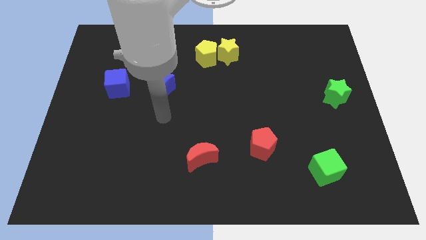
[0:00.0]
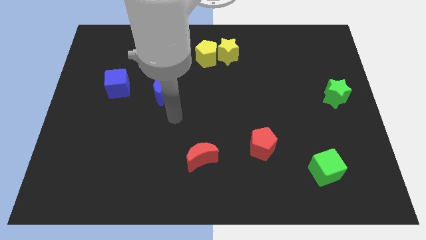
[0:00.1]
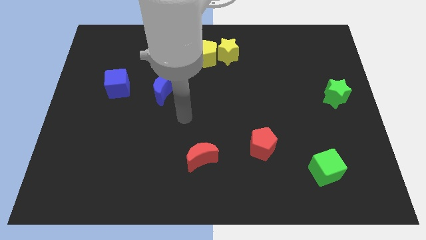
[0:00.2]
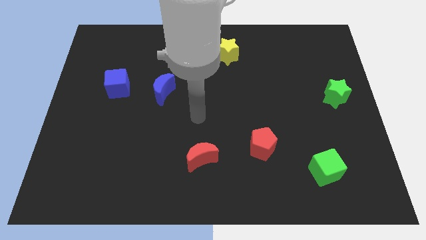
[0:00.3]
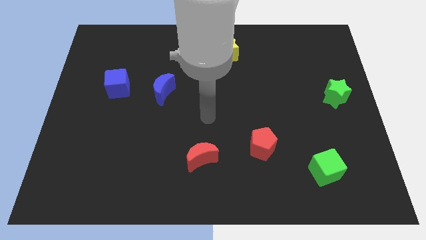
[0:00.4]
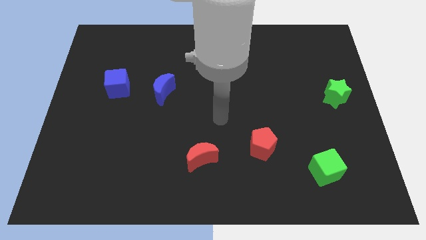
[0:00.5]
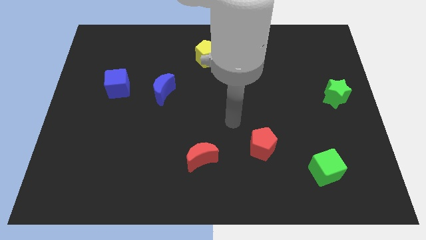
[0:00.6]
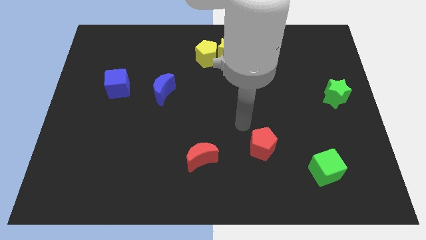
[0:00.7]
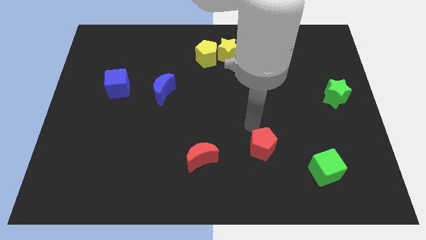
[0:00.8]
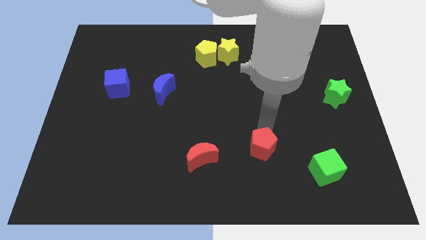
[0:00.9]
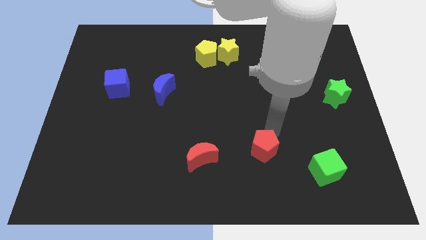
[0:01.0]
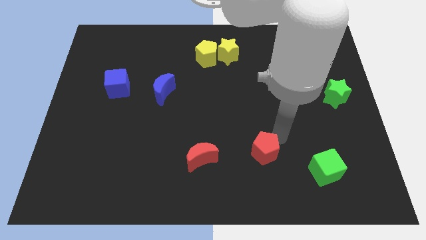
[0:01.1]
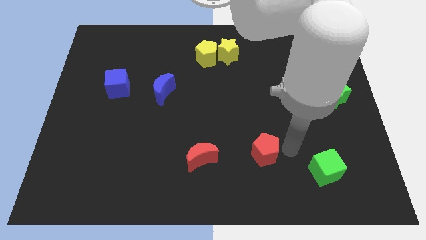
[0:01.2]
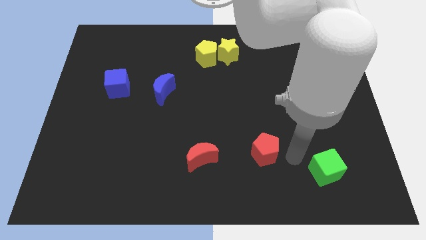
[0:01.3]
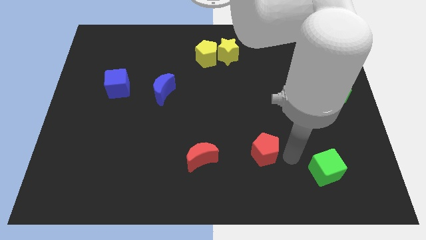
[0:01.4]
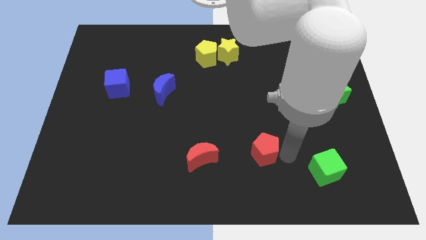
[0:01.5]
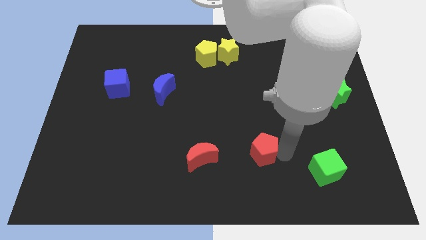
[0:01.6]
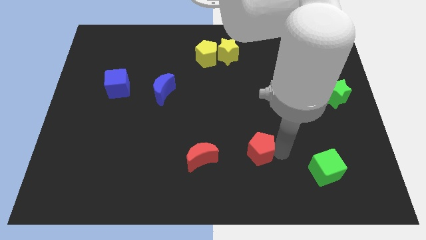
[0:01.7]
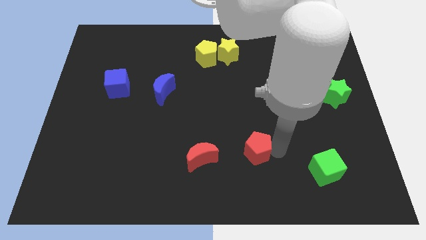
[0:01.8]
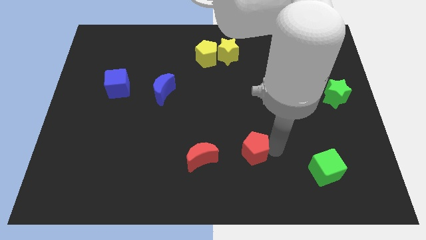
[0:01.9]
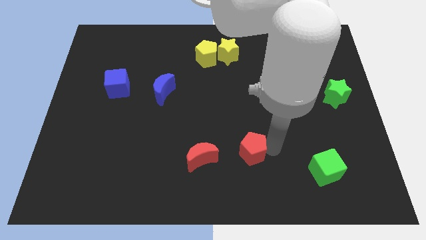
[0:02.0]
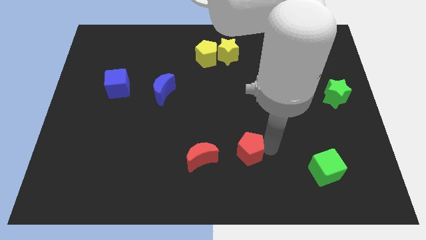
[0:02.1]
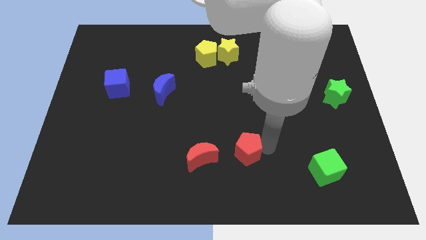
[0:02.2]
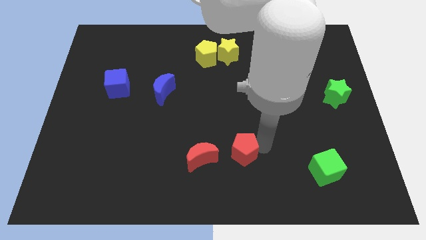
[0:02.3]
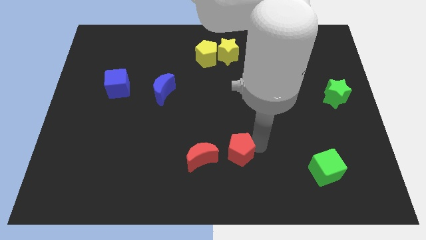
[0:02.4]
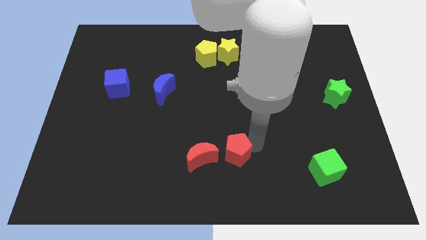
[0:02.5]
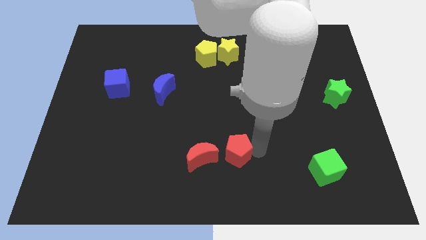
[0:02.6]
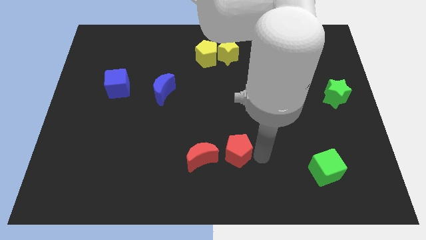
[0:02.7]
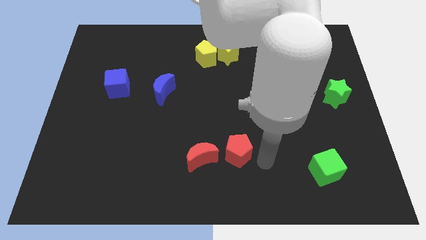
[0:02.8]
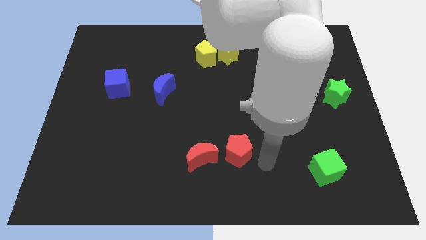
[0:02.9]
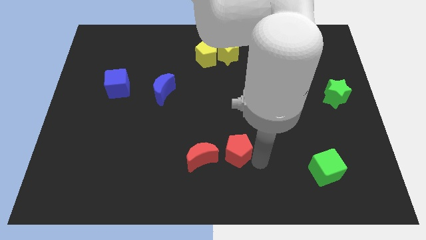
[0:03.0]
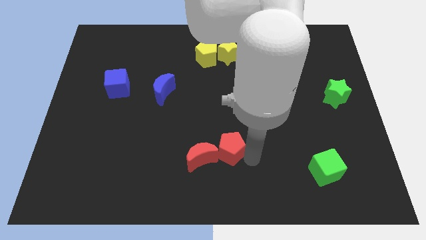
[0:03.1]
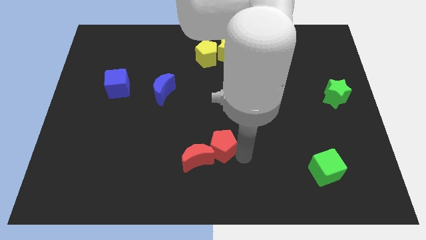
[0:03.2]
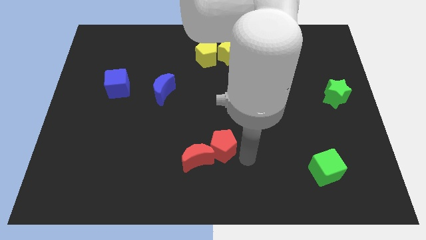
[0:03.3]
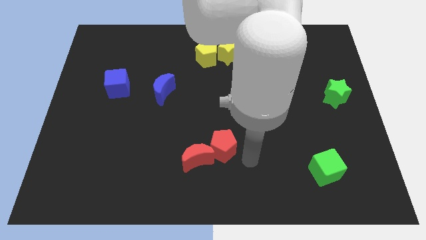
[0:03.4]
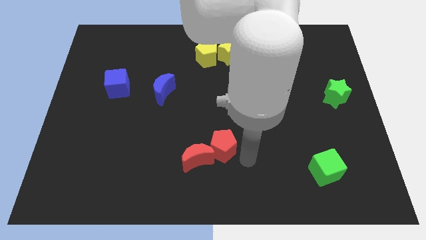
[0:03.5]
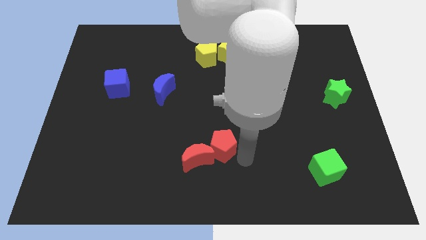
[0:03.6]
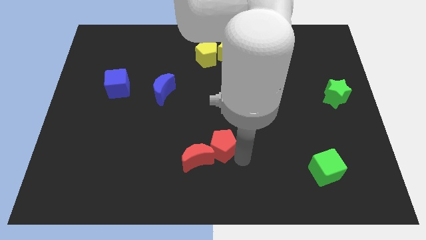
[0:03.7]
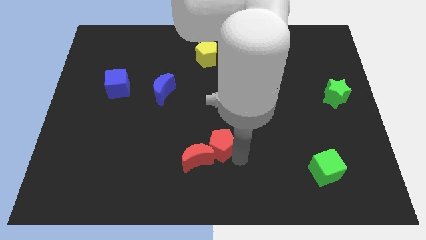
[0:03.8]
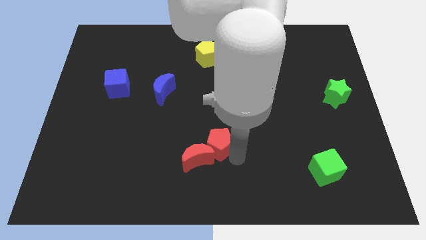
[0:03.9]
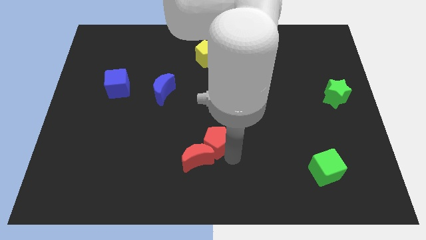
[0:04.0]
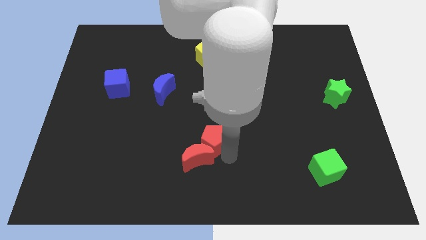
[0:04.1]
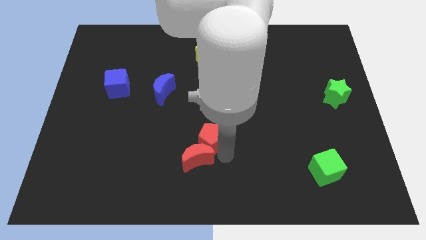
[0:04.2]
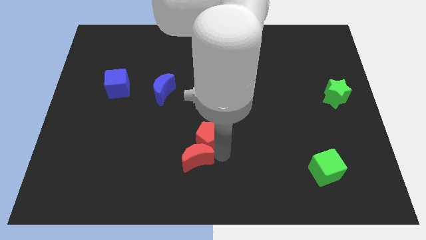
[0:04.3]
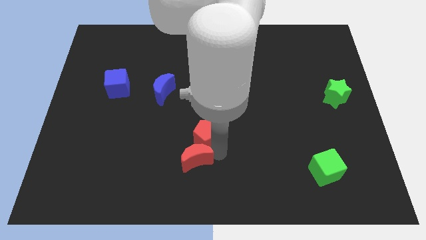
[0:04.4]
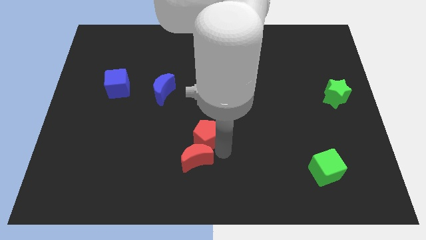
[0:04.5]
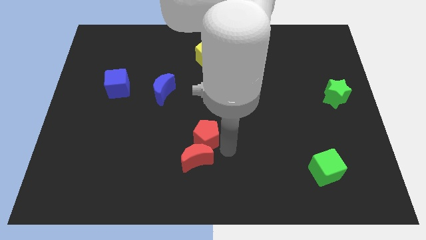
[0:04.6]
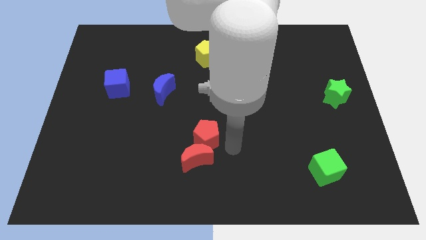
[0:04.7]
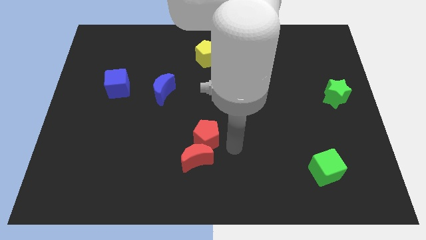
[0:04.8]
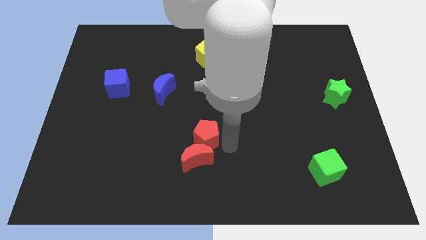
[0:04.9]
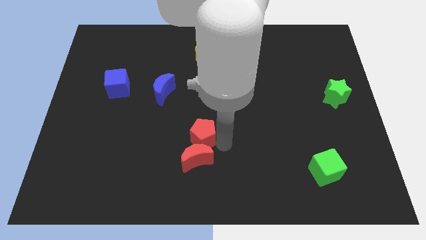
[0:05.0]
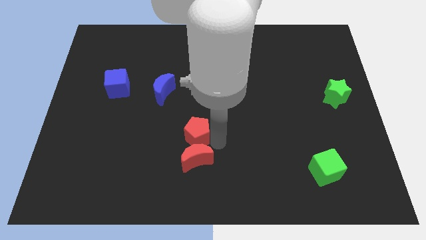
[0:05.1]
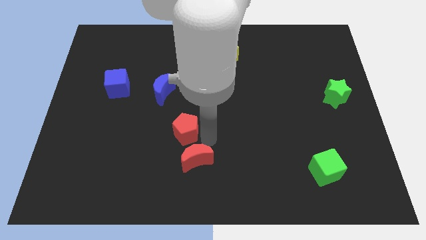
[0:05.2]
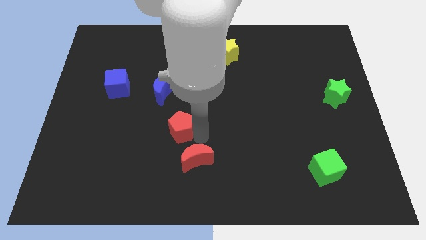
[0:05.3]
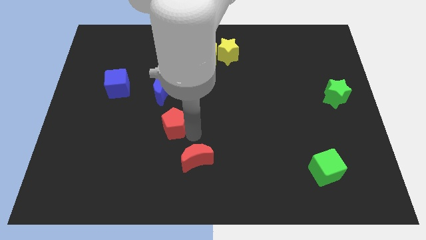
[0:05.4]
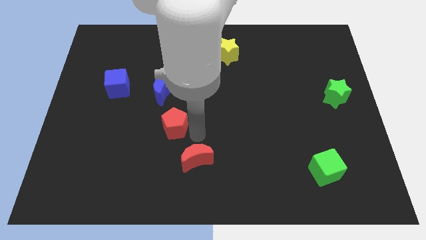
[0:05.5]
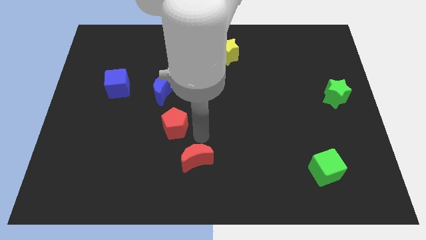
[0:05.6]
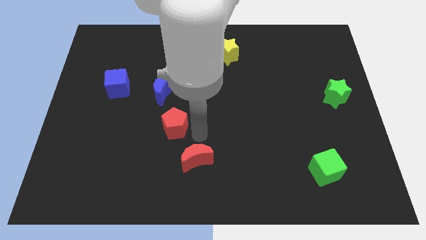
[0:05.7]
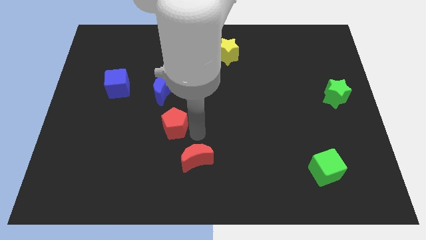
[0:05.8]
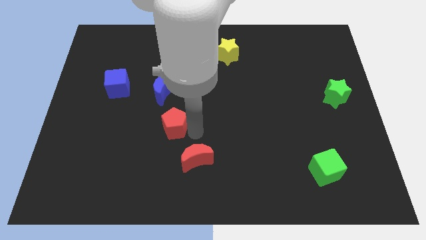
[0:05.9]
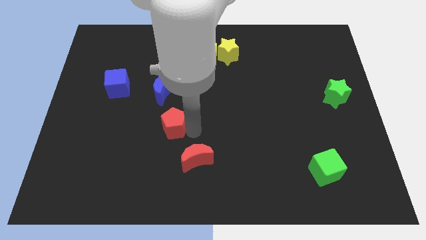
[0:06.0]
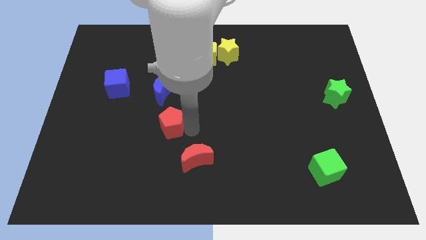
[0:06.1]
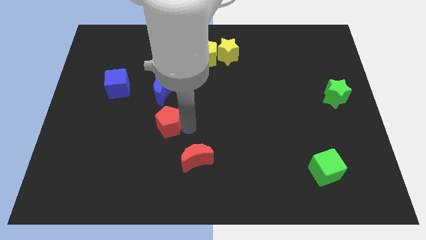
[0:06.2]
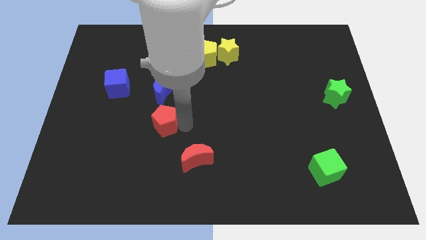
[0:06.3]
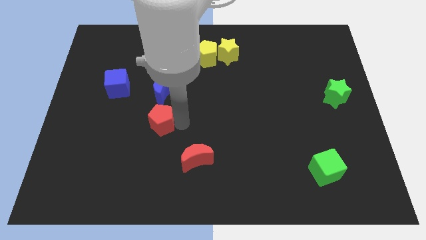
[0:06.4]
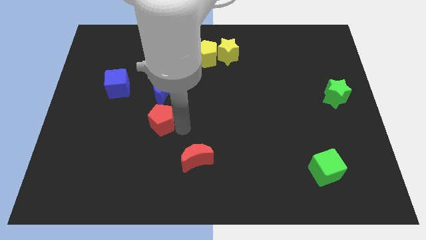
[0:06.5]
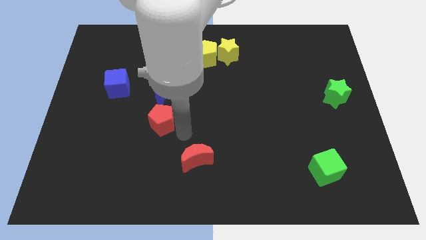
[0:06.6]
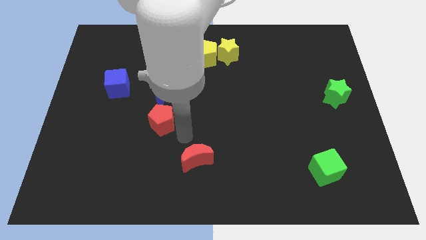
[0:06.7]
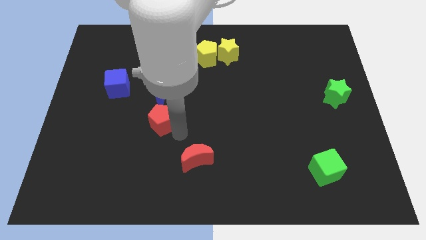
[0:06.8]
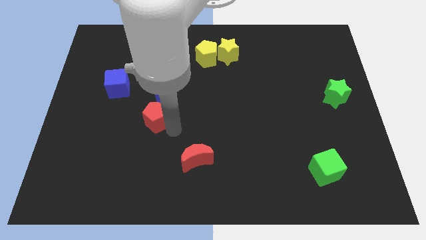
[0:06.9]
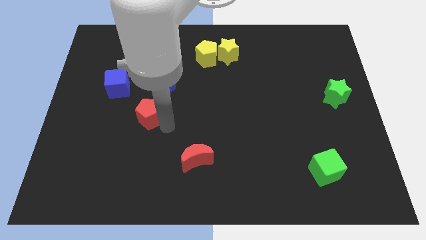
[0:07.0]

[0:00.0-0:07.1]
slide the red pentagon to the bottom left side of the blue moon
